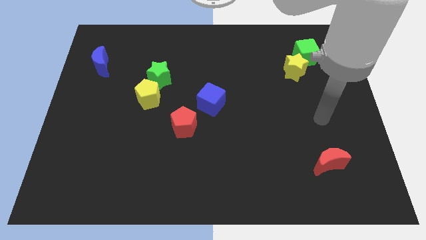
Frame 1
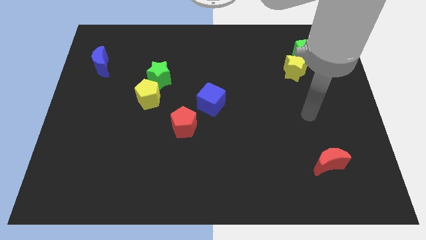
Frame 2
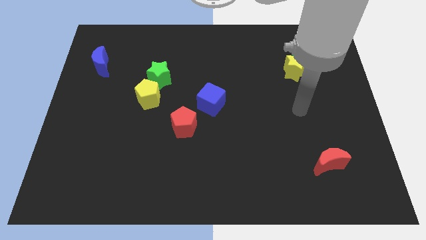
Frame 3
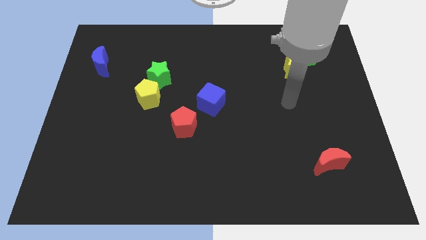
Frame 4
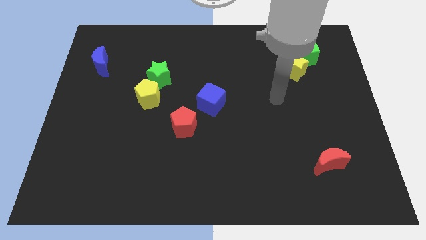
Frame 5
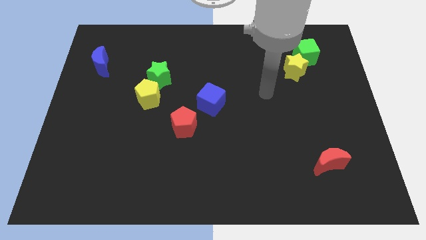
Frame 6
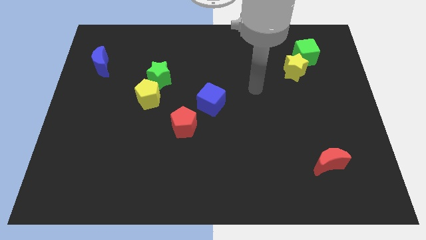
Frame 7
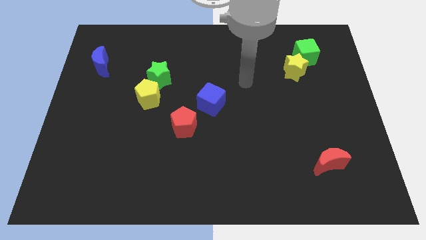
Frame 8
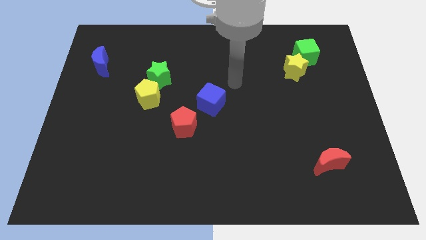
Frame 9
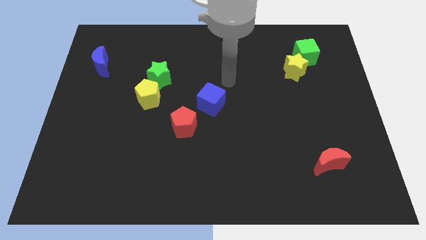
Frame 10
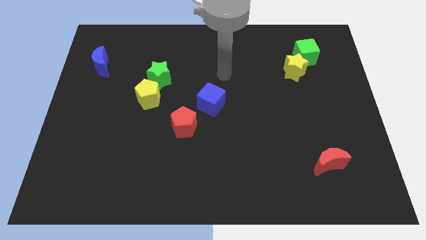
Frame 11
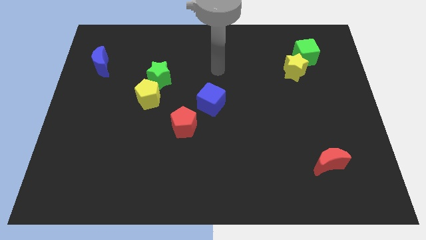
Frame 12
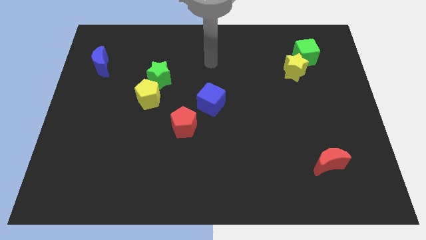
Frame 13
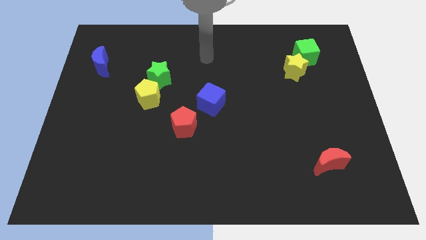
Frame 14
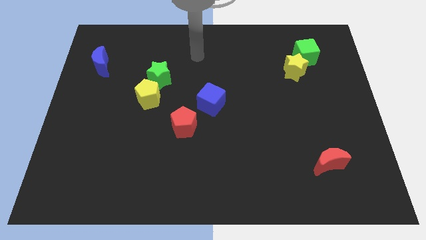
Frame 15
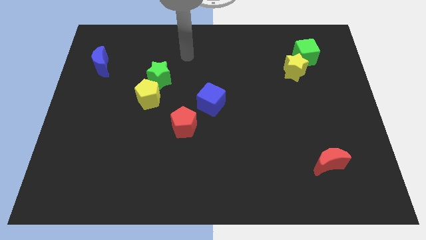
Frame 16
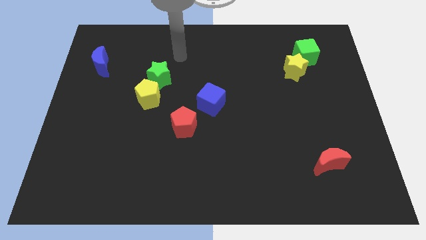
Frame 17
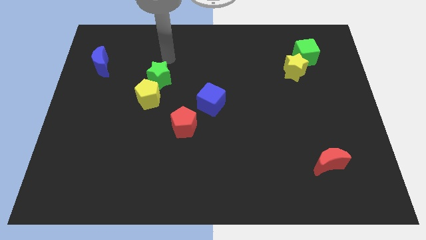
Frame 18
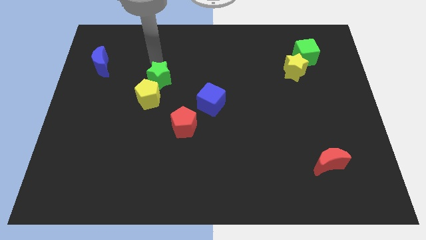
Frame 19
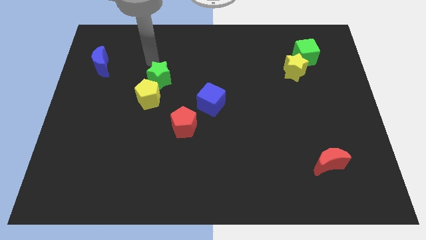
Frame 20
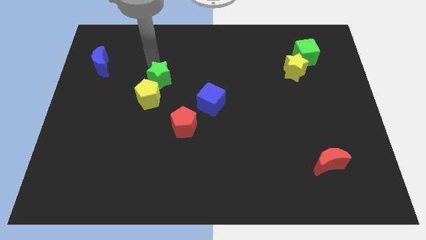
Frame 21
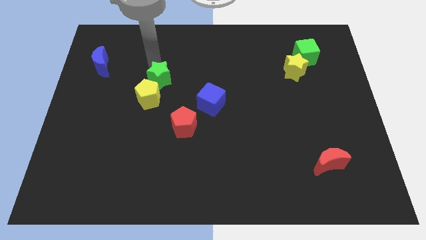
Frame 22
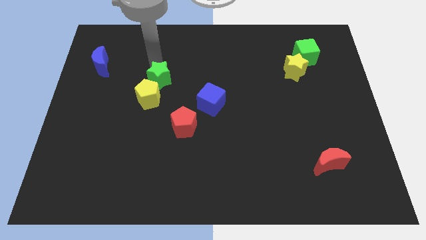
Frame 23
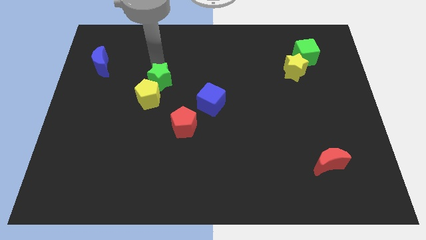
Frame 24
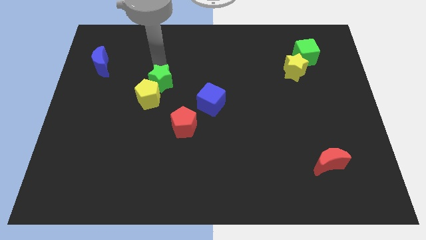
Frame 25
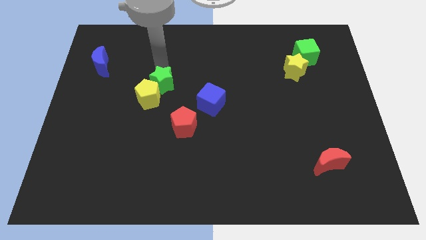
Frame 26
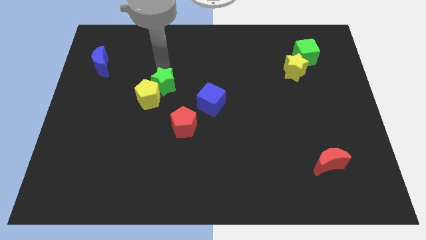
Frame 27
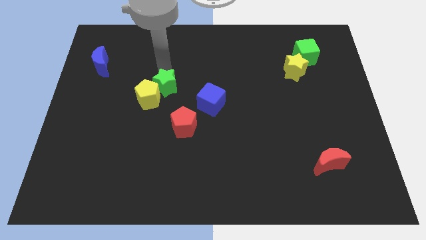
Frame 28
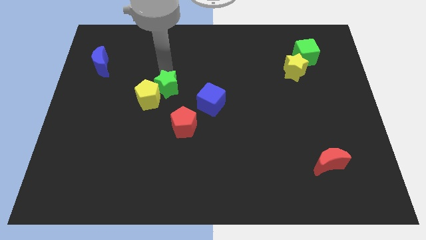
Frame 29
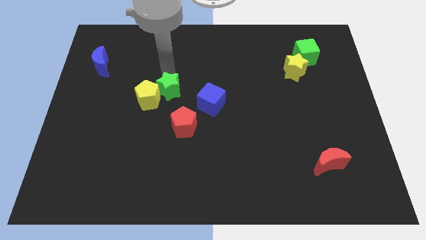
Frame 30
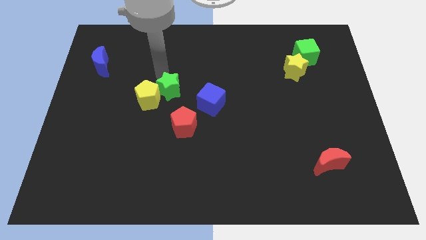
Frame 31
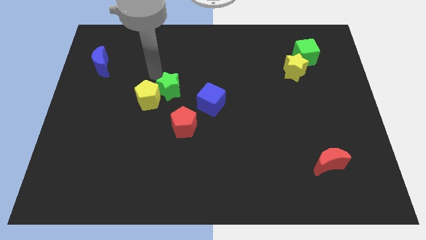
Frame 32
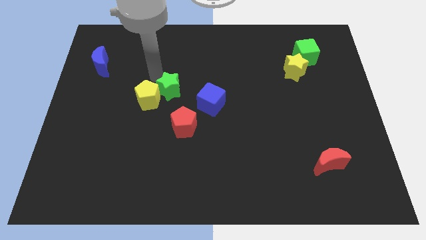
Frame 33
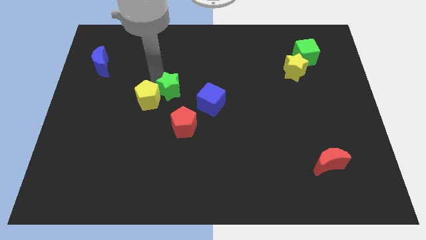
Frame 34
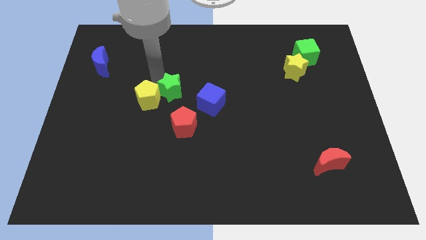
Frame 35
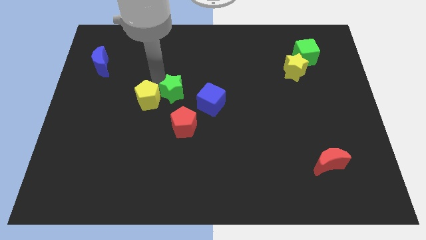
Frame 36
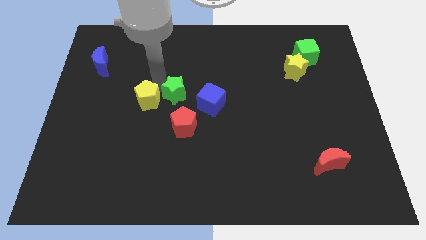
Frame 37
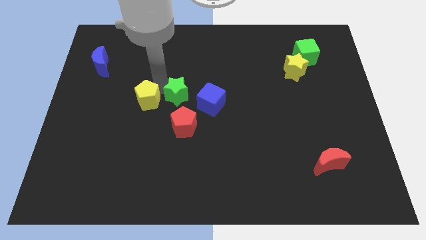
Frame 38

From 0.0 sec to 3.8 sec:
move the green star a little diagonally downwards and right

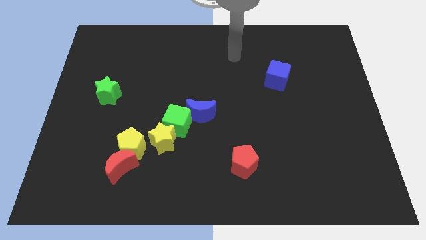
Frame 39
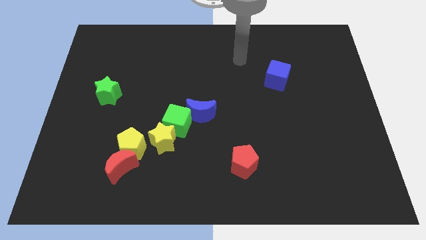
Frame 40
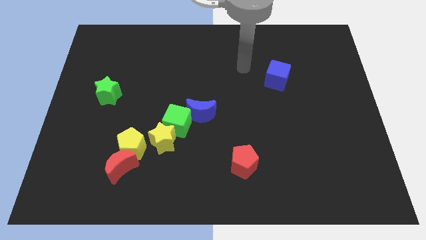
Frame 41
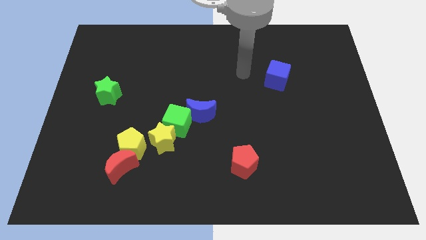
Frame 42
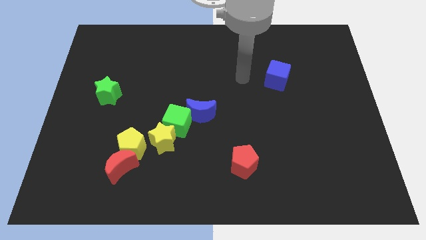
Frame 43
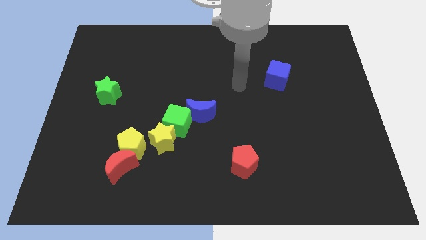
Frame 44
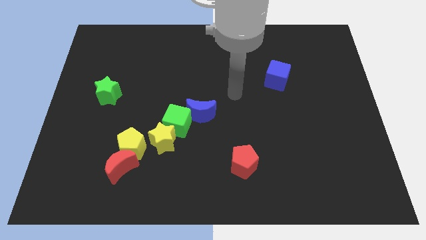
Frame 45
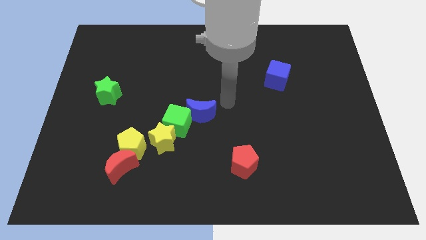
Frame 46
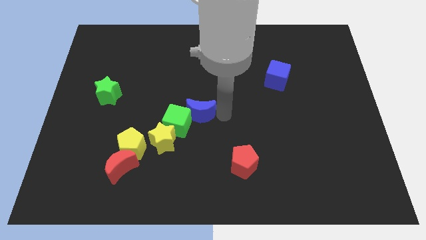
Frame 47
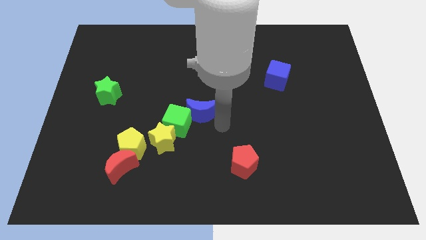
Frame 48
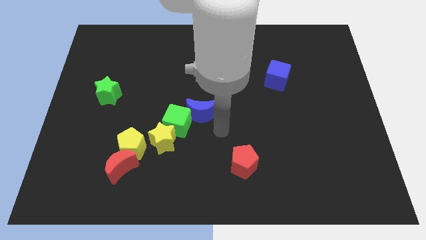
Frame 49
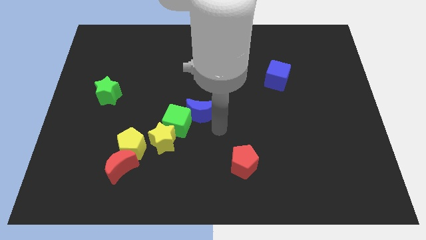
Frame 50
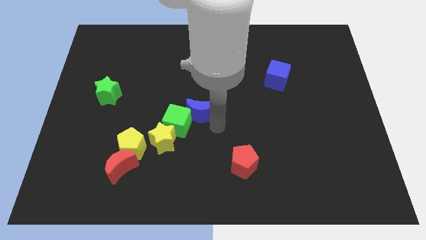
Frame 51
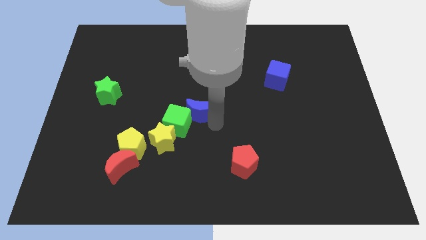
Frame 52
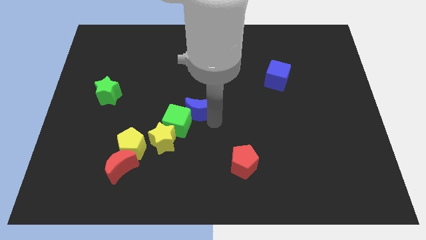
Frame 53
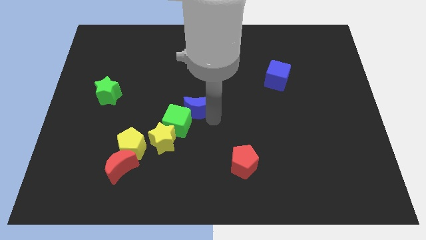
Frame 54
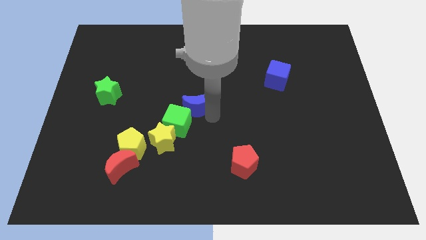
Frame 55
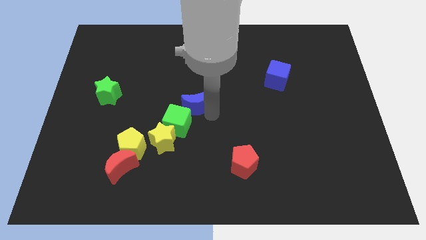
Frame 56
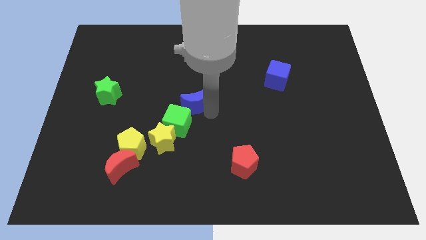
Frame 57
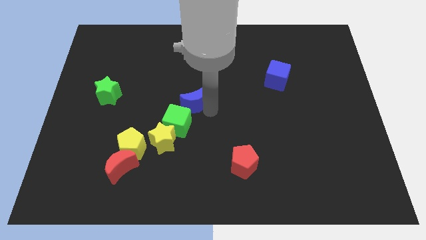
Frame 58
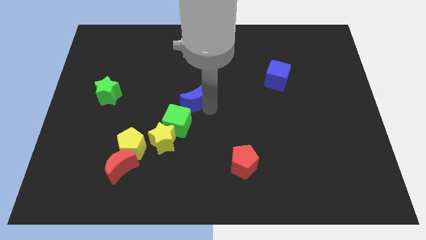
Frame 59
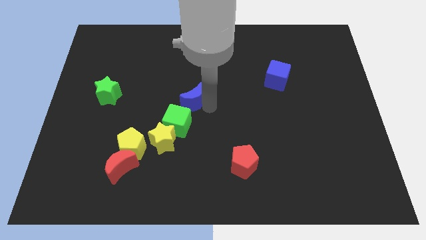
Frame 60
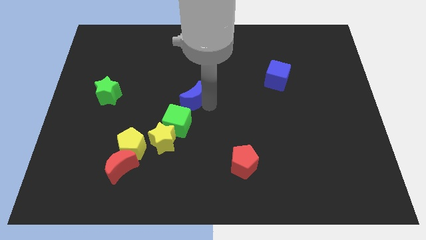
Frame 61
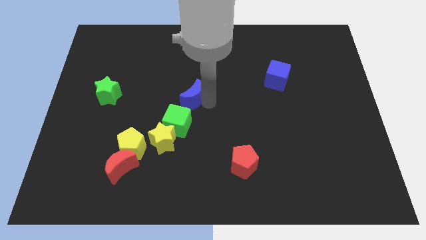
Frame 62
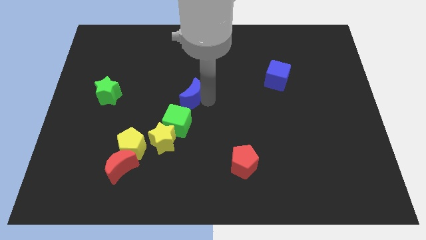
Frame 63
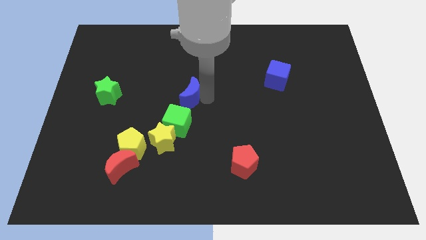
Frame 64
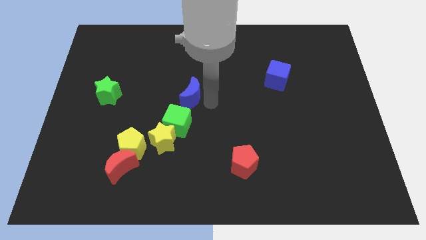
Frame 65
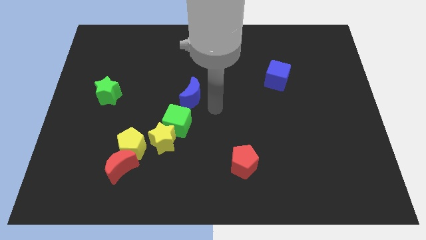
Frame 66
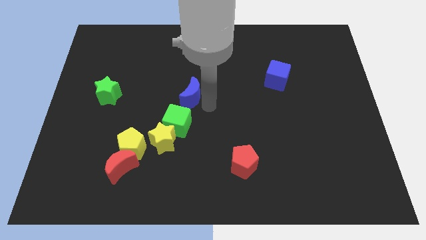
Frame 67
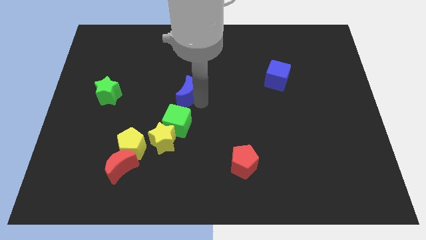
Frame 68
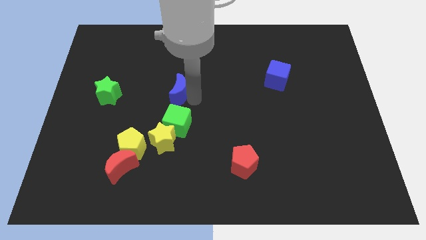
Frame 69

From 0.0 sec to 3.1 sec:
slide the blue moon slightly up and then to the left

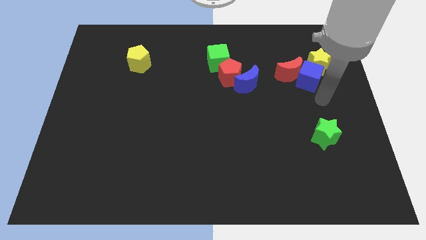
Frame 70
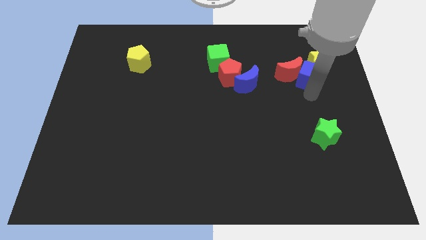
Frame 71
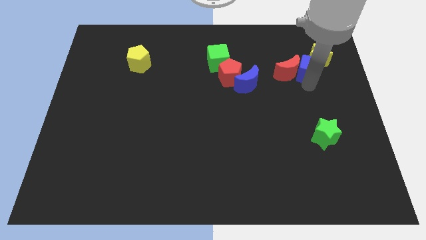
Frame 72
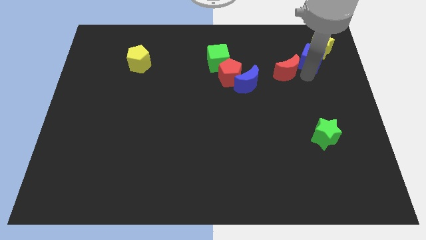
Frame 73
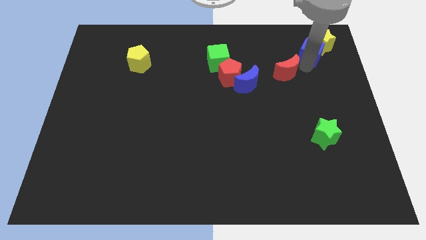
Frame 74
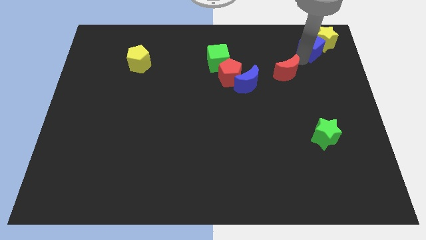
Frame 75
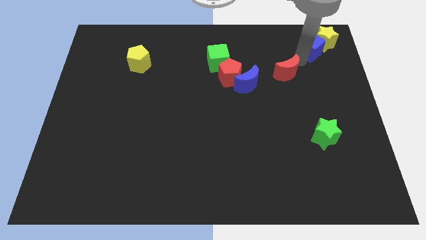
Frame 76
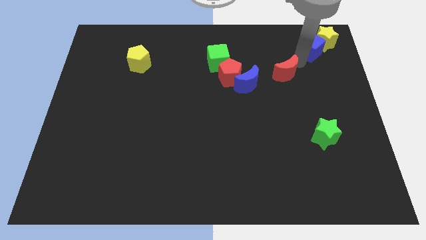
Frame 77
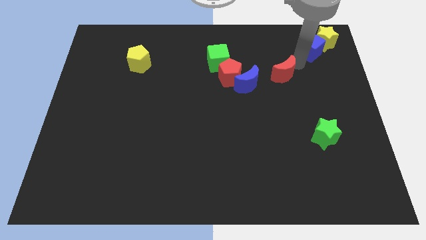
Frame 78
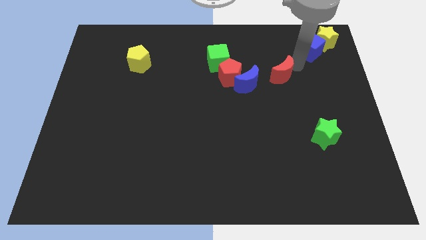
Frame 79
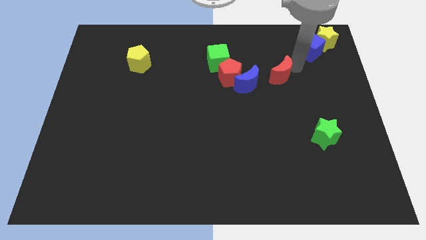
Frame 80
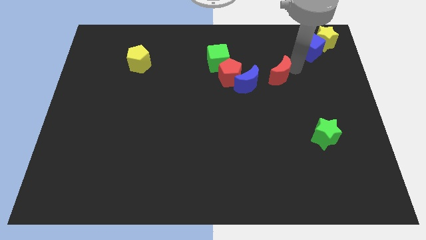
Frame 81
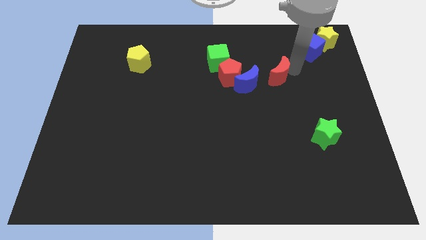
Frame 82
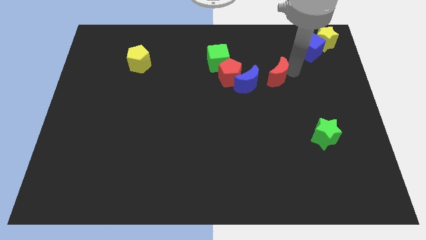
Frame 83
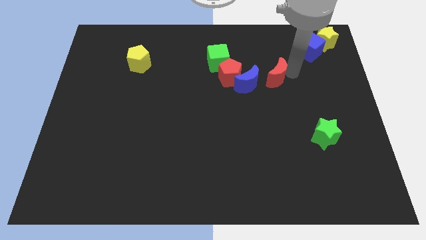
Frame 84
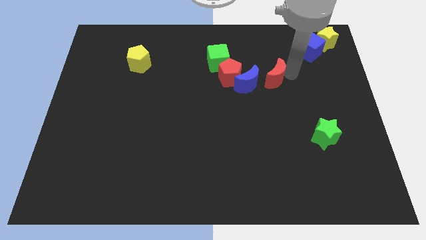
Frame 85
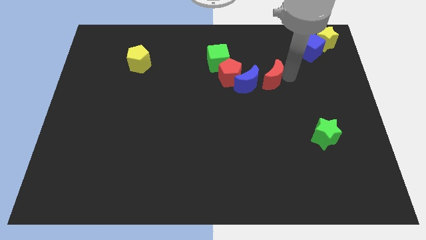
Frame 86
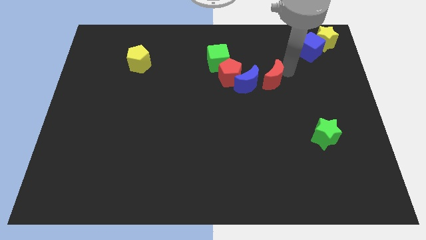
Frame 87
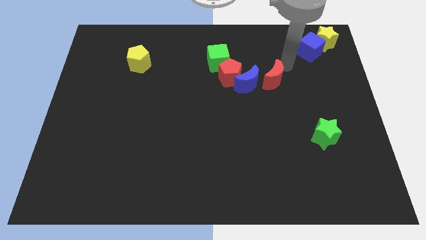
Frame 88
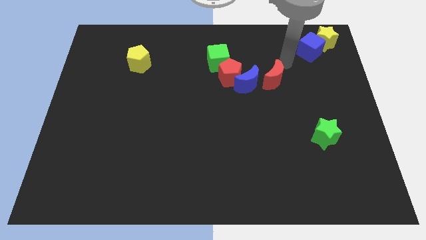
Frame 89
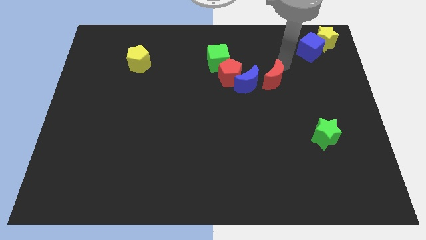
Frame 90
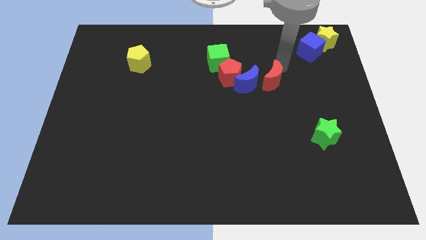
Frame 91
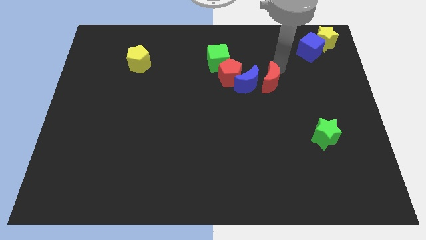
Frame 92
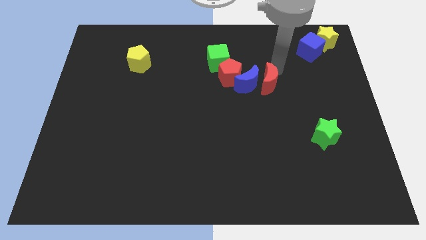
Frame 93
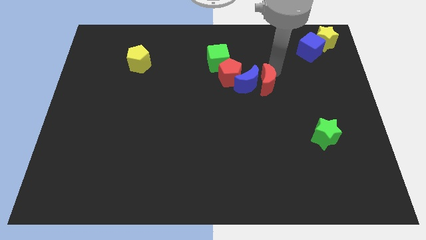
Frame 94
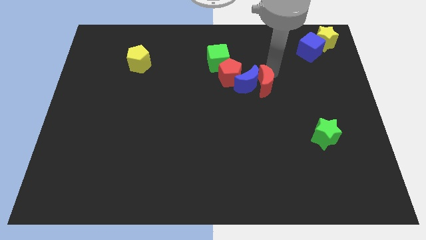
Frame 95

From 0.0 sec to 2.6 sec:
move the red moon downwards and to the left diagonally somewhat
